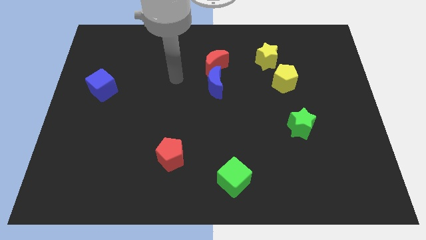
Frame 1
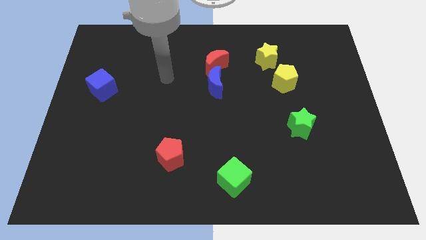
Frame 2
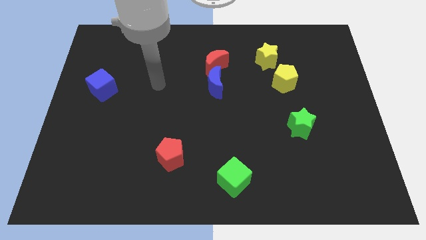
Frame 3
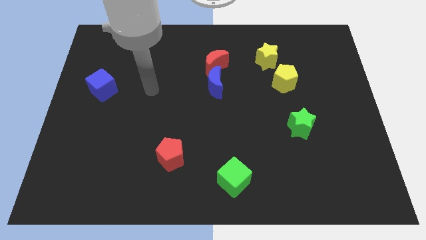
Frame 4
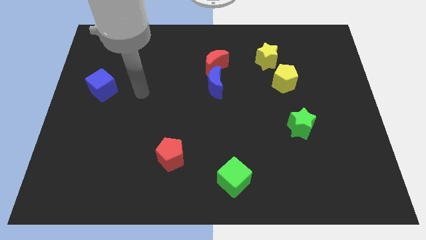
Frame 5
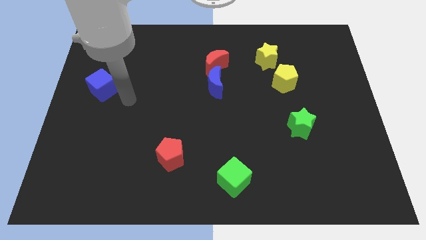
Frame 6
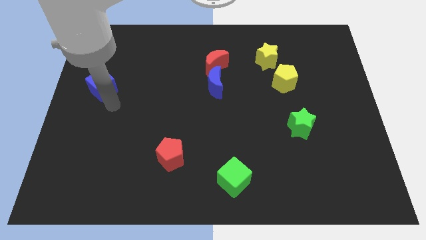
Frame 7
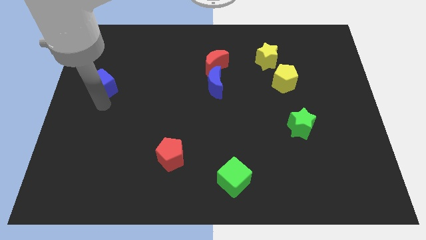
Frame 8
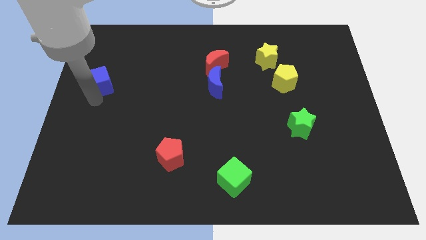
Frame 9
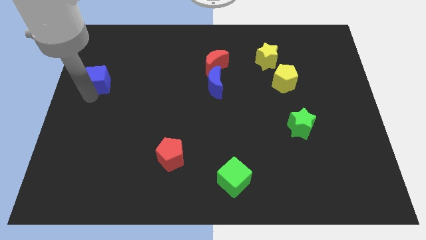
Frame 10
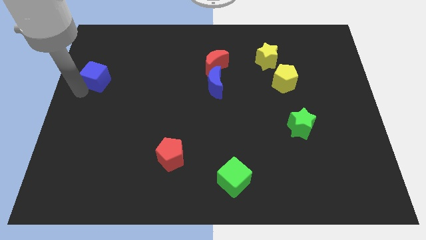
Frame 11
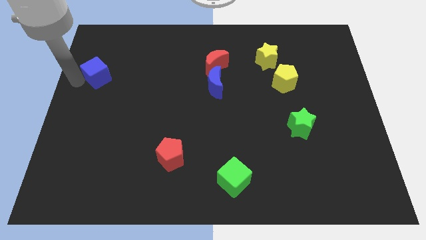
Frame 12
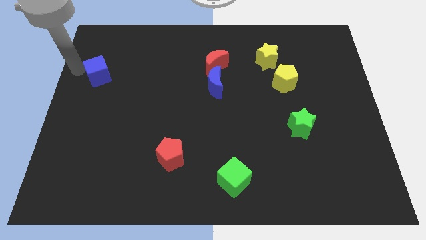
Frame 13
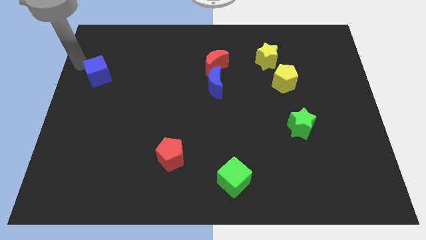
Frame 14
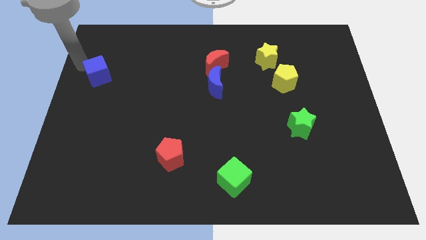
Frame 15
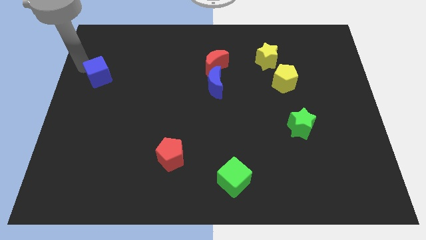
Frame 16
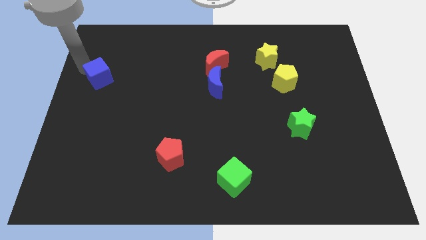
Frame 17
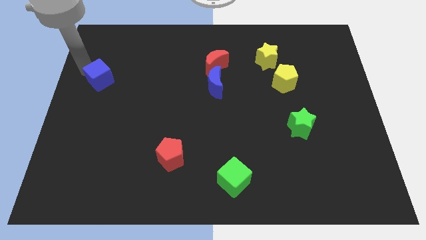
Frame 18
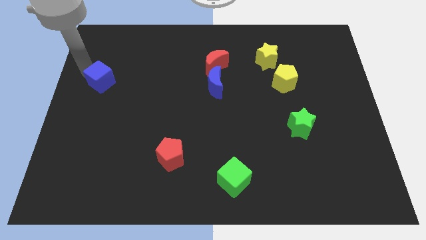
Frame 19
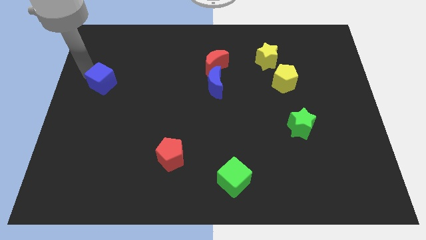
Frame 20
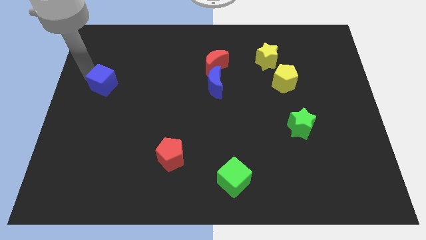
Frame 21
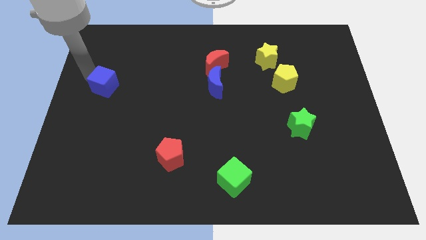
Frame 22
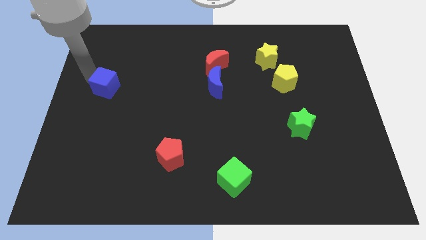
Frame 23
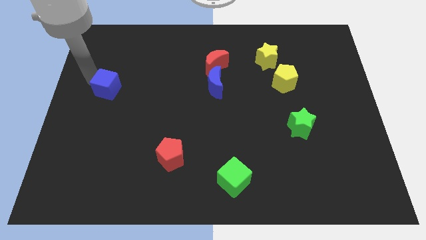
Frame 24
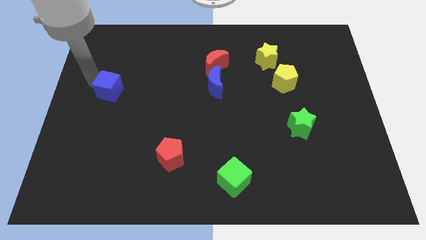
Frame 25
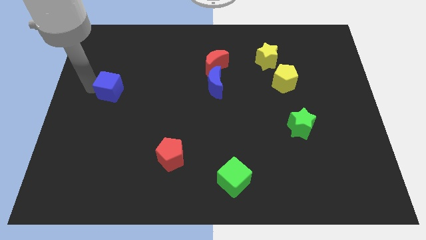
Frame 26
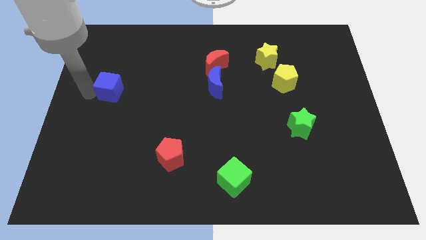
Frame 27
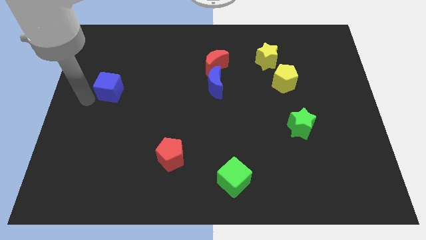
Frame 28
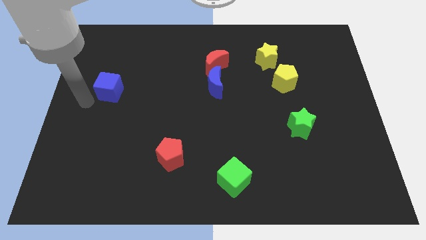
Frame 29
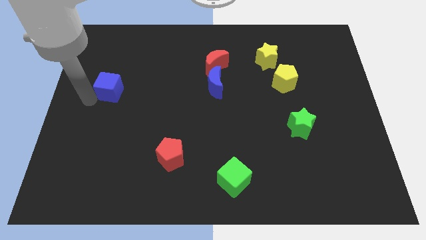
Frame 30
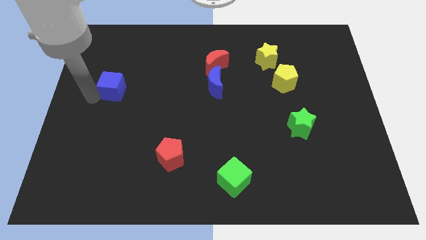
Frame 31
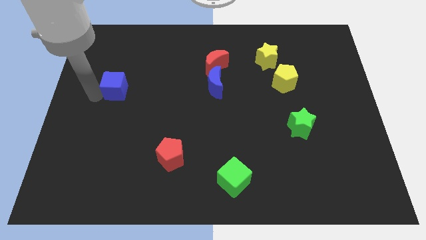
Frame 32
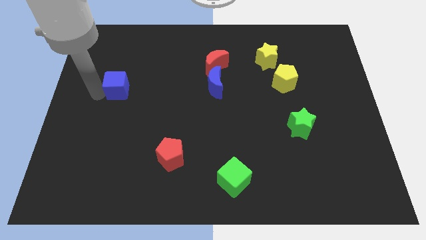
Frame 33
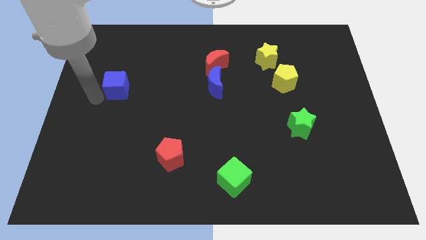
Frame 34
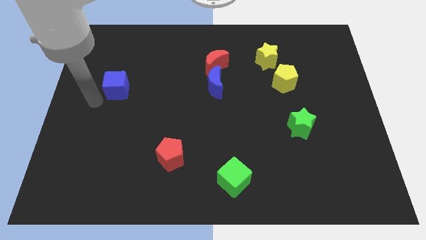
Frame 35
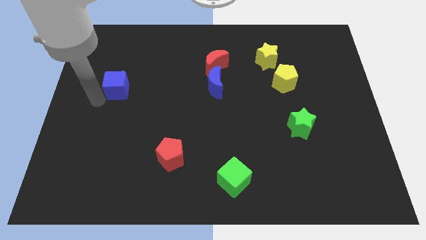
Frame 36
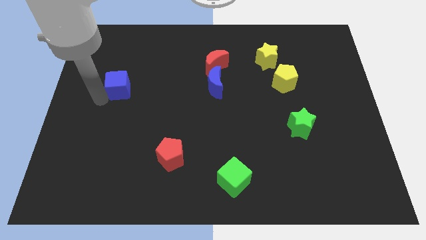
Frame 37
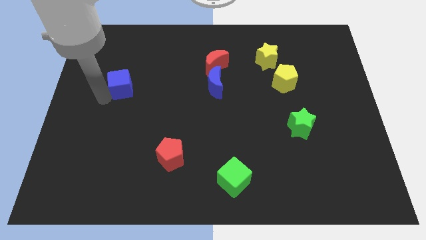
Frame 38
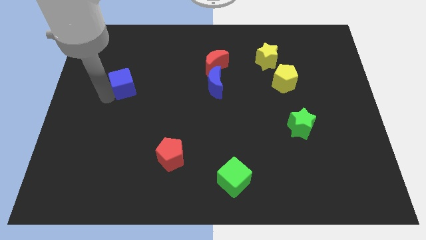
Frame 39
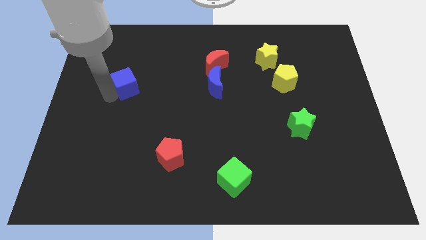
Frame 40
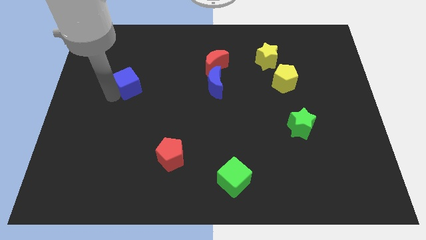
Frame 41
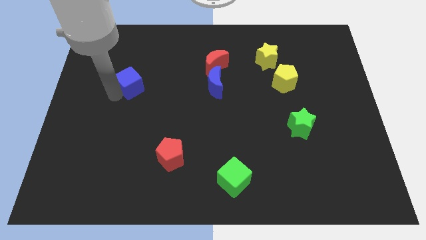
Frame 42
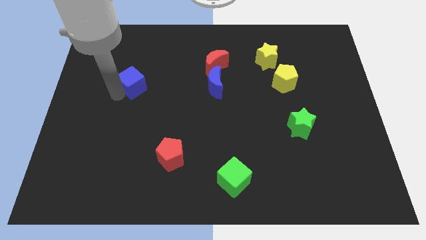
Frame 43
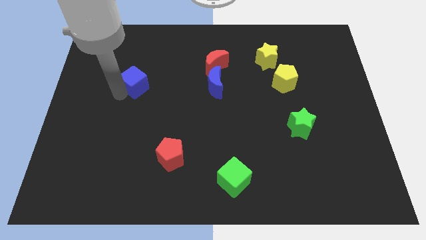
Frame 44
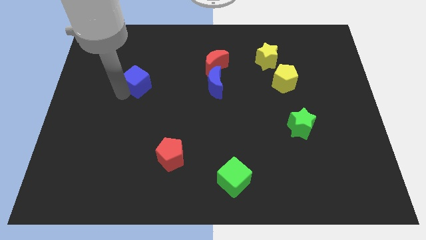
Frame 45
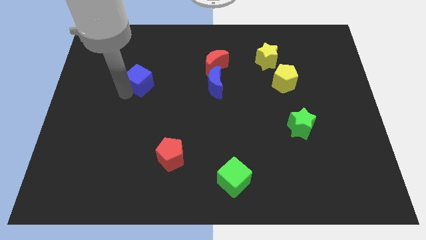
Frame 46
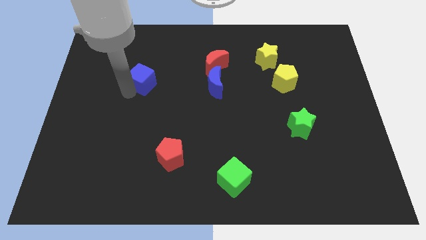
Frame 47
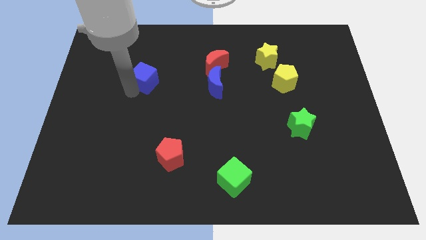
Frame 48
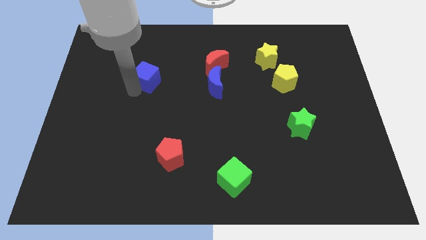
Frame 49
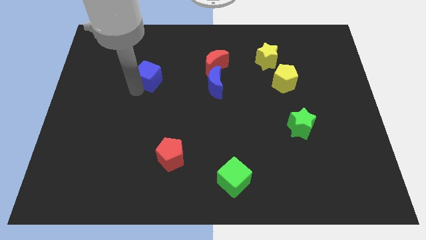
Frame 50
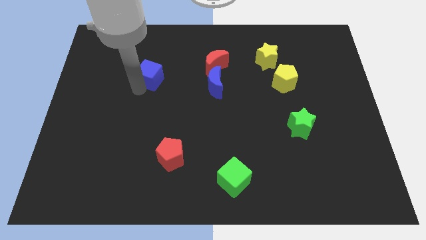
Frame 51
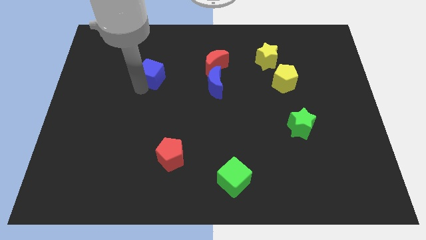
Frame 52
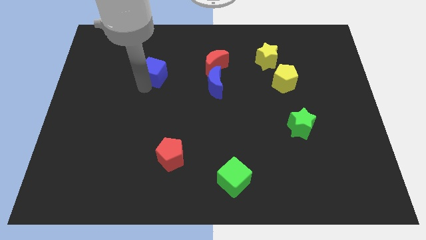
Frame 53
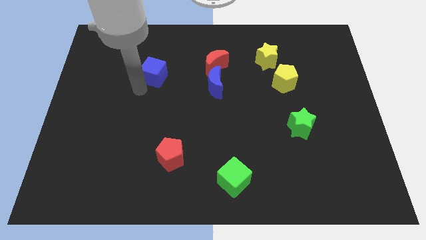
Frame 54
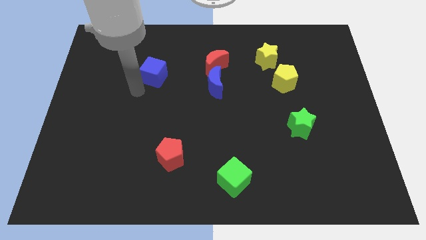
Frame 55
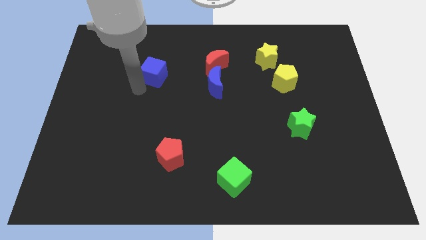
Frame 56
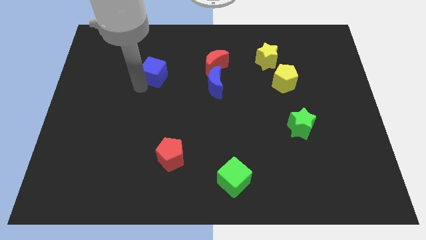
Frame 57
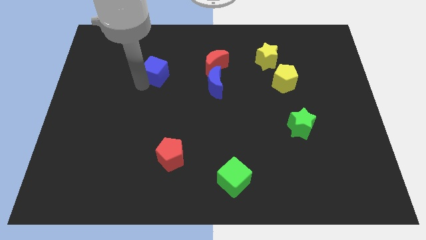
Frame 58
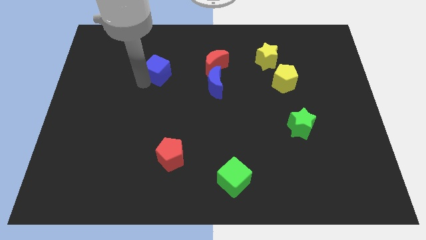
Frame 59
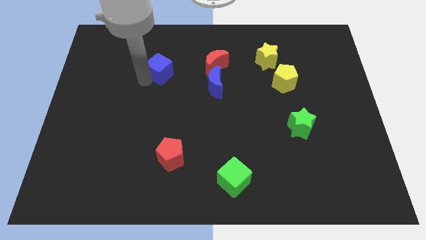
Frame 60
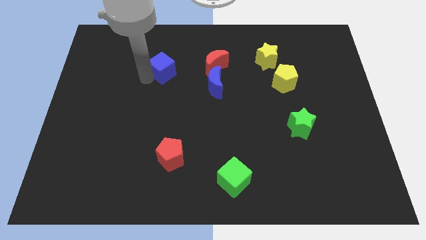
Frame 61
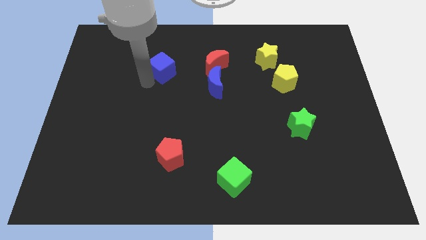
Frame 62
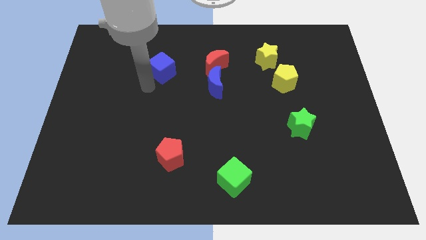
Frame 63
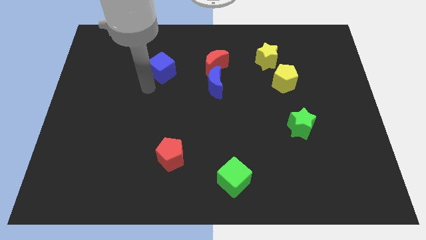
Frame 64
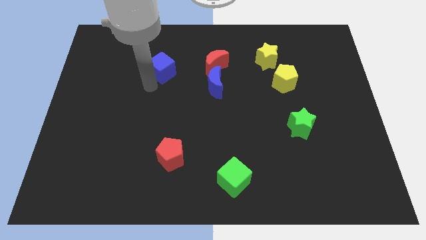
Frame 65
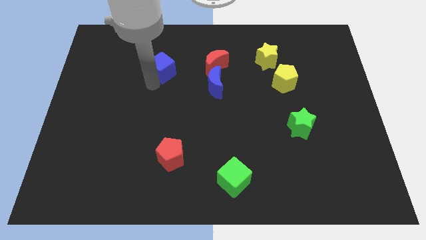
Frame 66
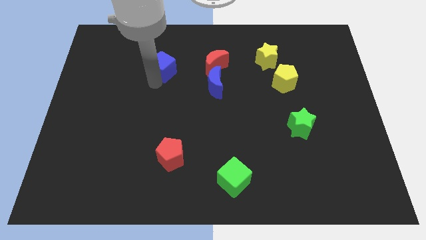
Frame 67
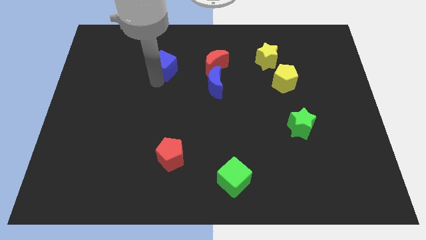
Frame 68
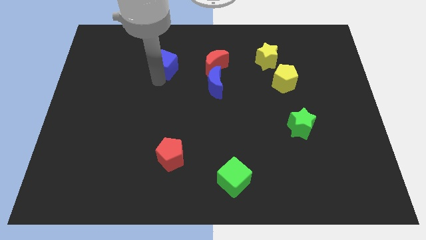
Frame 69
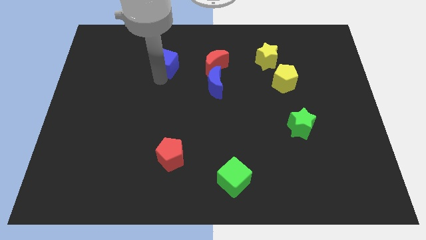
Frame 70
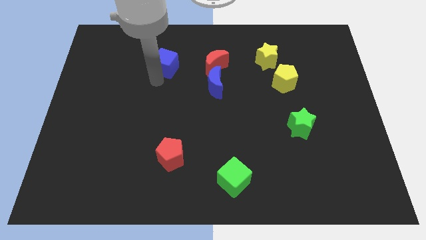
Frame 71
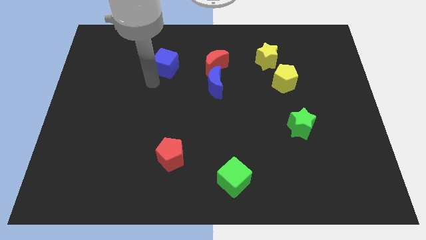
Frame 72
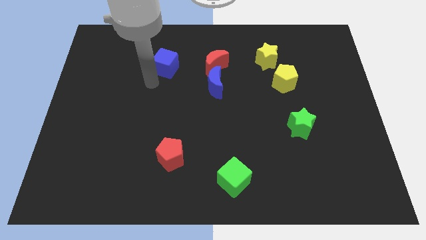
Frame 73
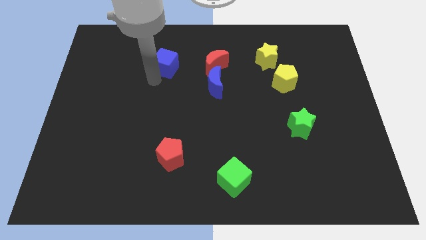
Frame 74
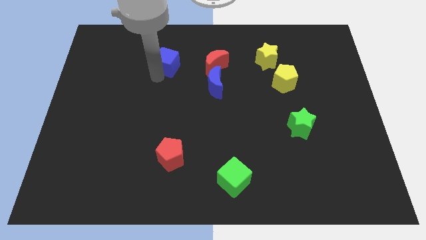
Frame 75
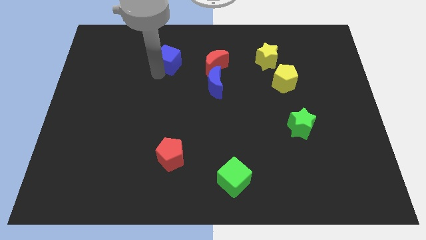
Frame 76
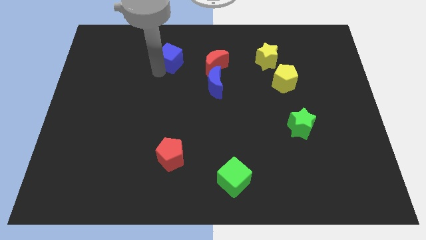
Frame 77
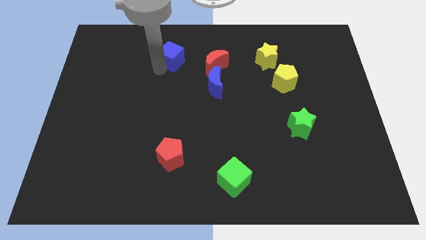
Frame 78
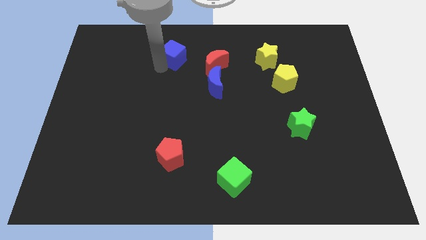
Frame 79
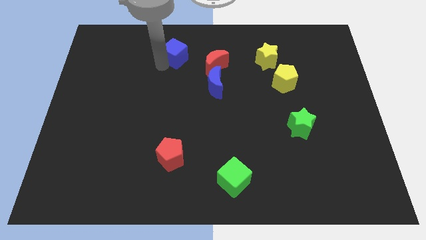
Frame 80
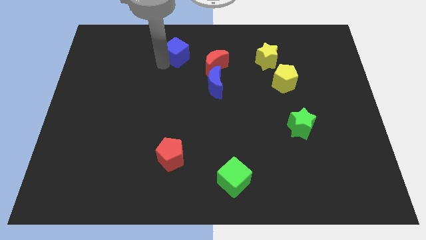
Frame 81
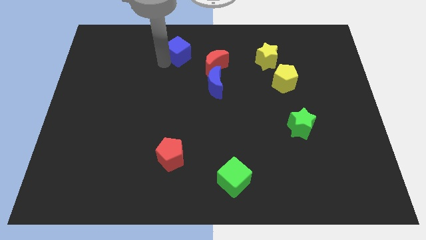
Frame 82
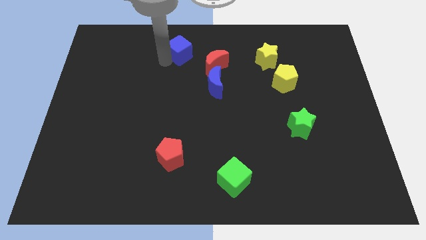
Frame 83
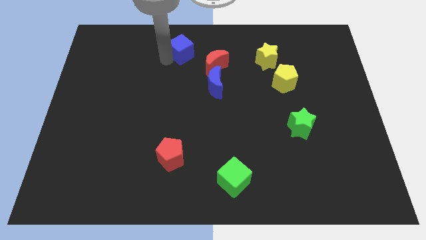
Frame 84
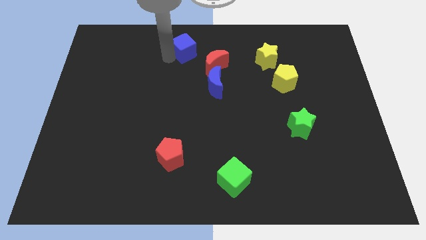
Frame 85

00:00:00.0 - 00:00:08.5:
push the blue cube to the towards your base
